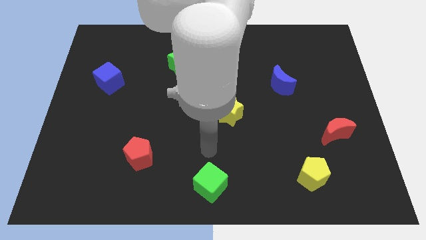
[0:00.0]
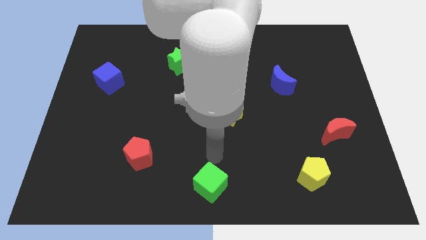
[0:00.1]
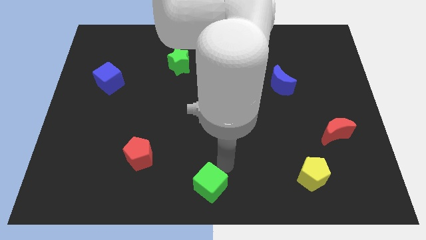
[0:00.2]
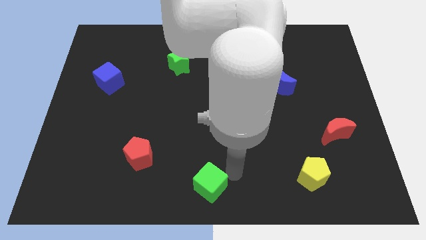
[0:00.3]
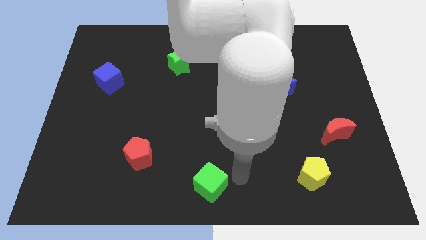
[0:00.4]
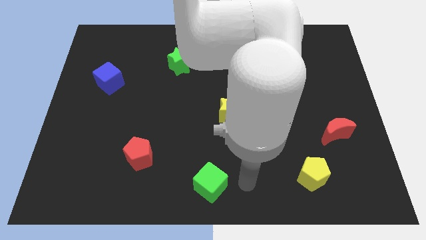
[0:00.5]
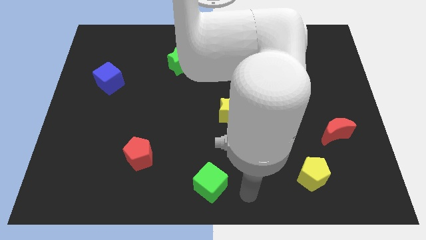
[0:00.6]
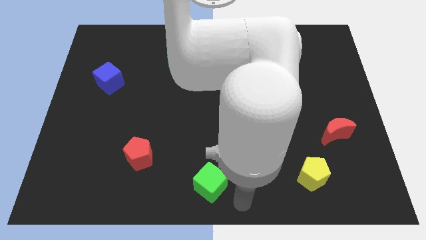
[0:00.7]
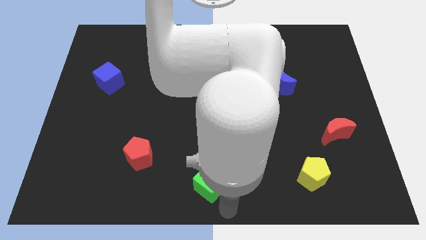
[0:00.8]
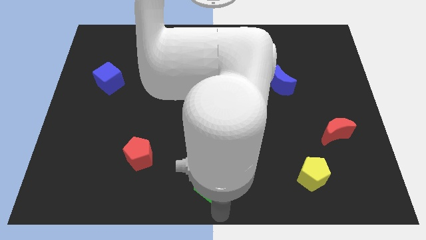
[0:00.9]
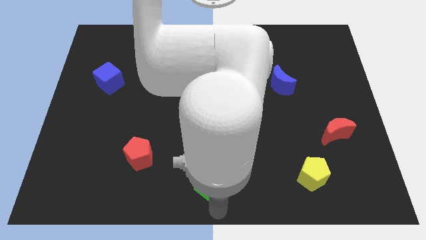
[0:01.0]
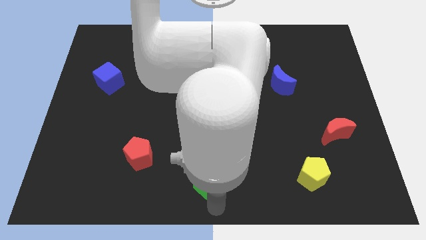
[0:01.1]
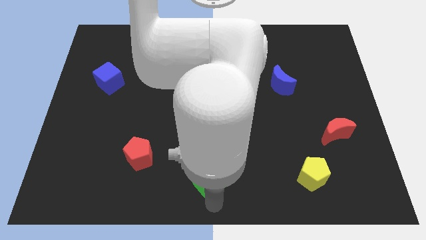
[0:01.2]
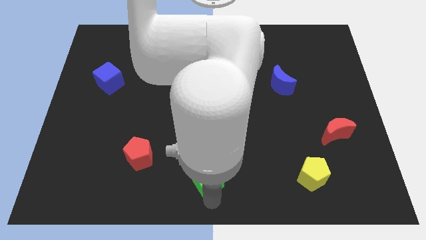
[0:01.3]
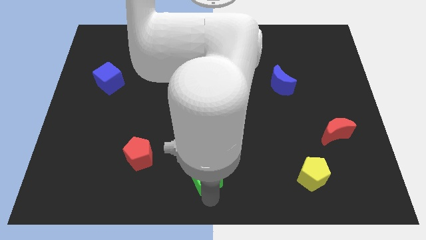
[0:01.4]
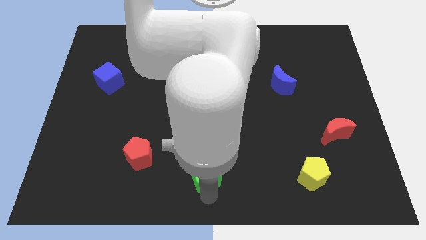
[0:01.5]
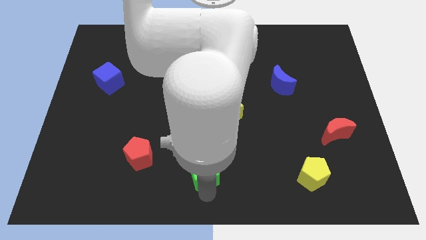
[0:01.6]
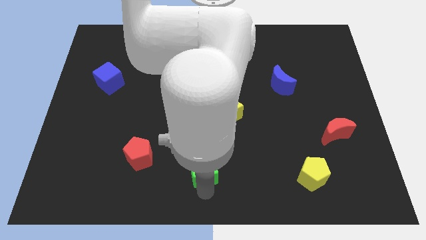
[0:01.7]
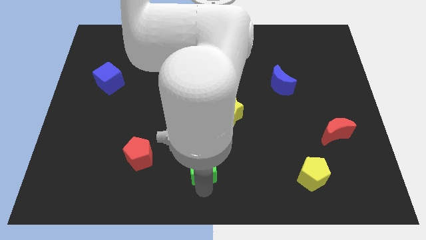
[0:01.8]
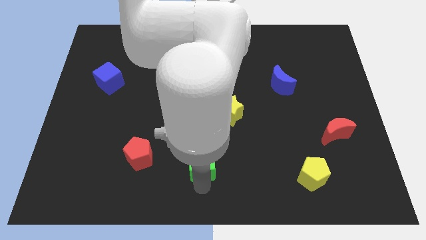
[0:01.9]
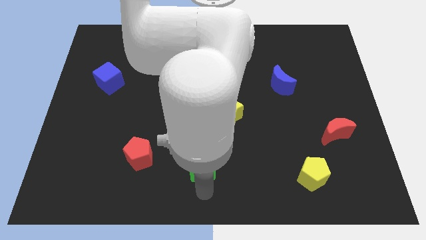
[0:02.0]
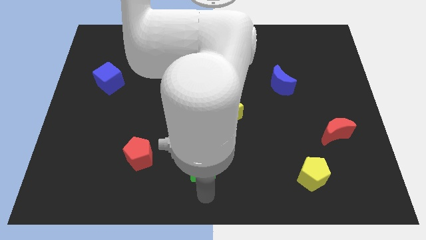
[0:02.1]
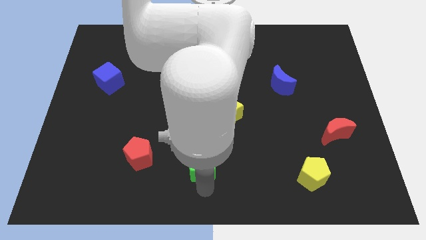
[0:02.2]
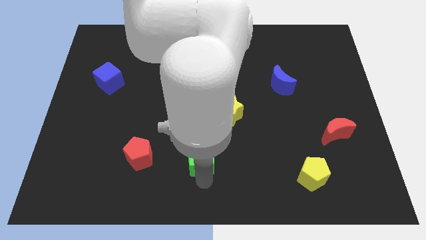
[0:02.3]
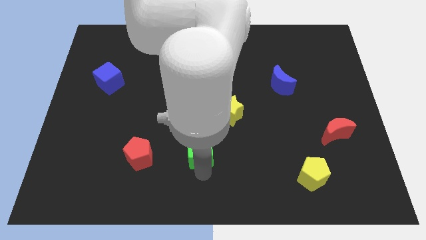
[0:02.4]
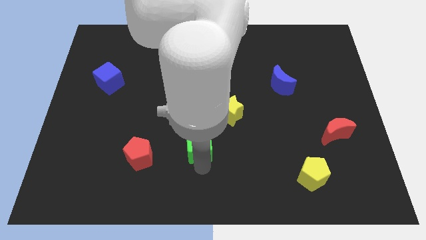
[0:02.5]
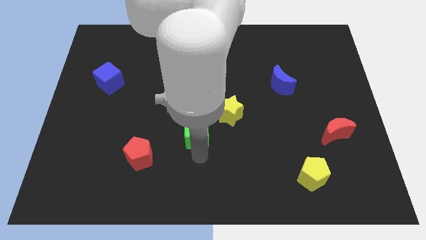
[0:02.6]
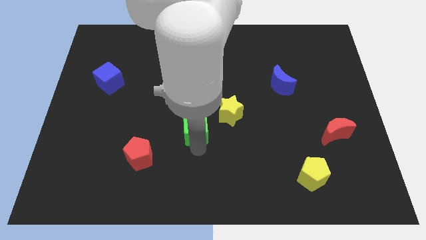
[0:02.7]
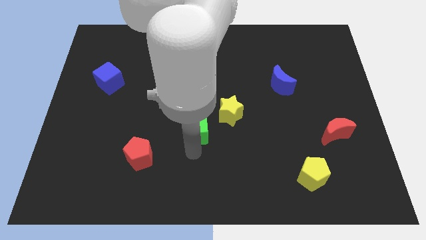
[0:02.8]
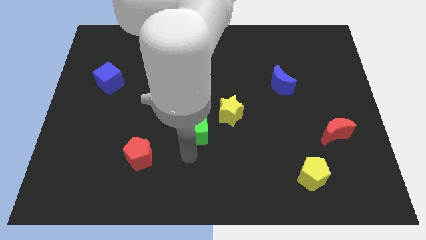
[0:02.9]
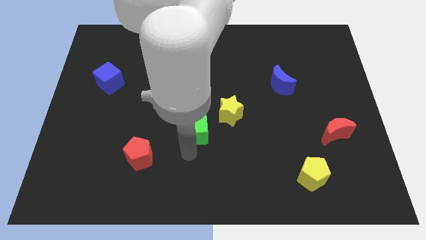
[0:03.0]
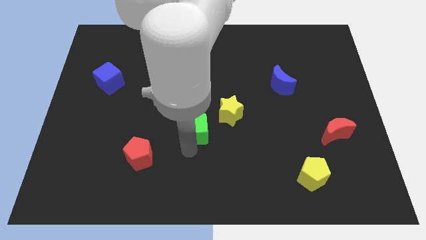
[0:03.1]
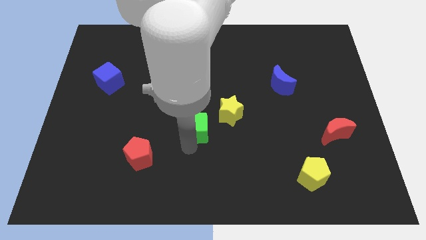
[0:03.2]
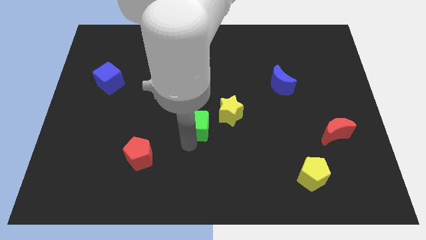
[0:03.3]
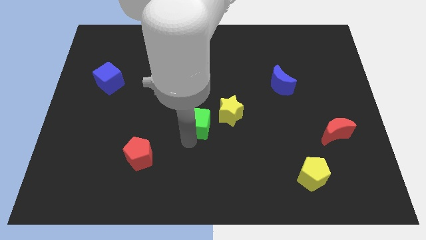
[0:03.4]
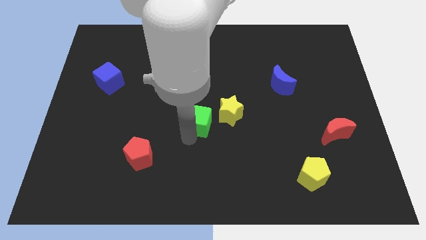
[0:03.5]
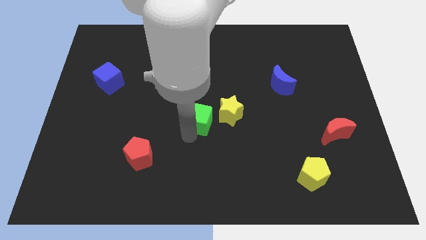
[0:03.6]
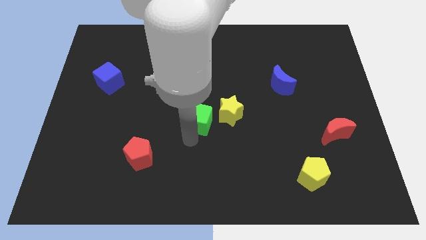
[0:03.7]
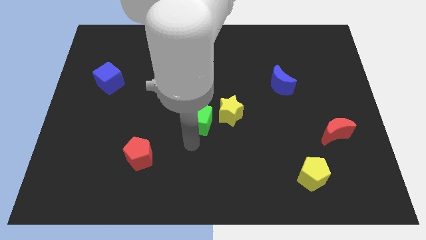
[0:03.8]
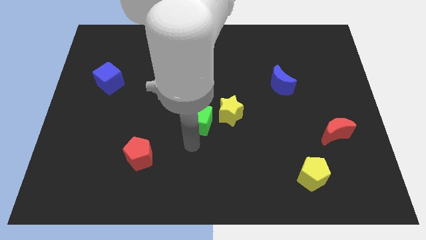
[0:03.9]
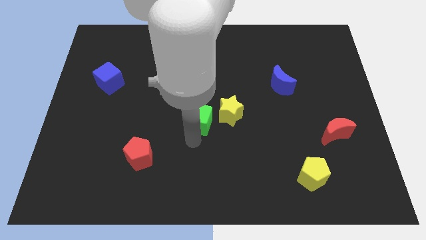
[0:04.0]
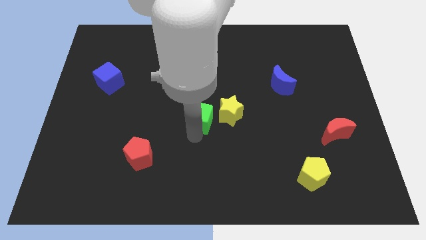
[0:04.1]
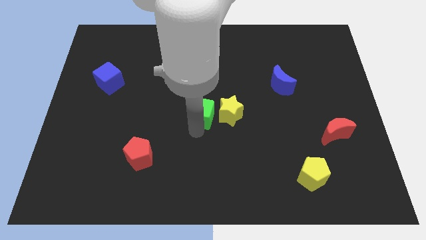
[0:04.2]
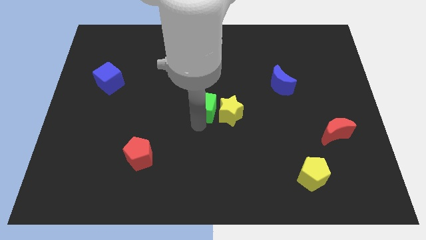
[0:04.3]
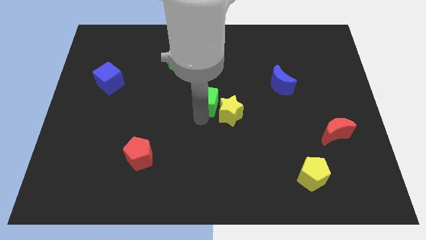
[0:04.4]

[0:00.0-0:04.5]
slide the green cube up

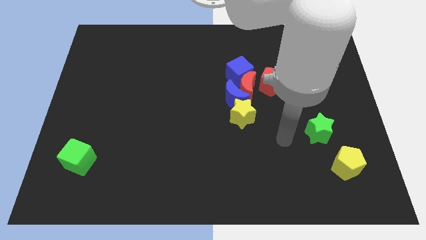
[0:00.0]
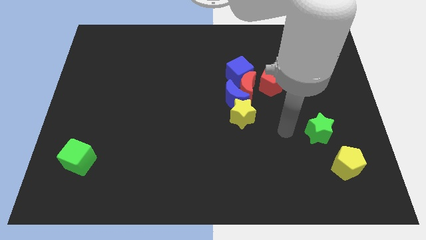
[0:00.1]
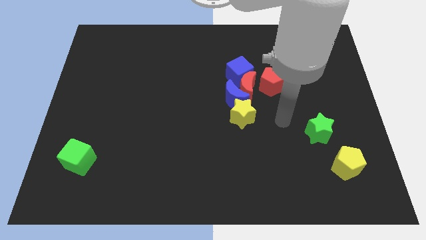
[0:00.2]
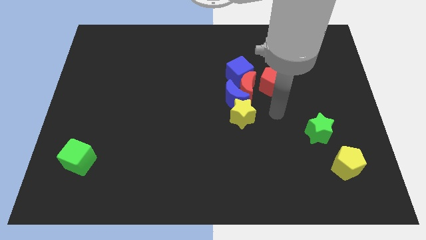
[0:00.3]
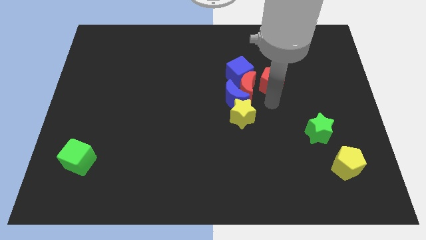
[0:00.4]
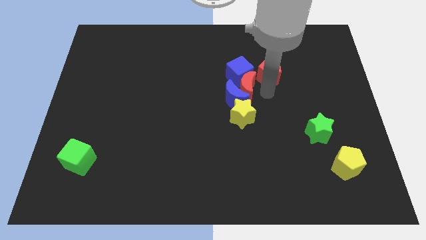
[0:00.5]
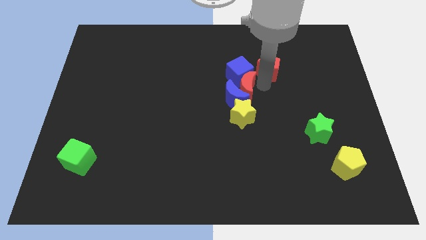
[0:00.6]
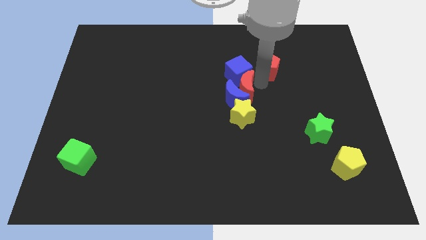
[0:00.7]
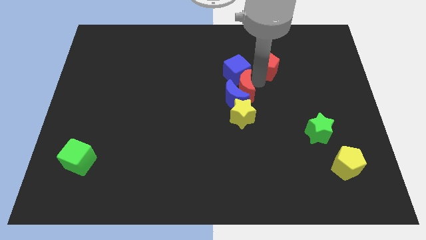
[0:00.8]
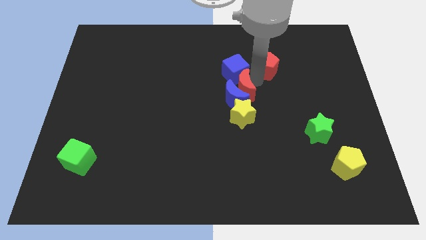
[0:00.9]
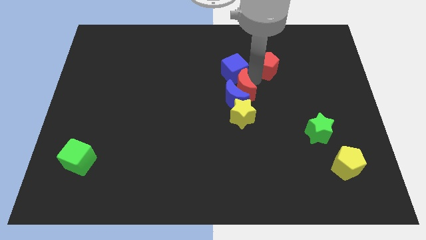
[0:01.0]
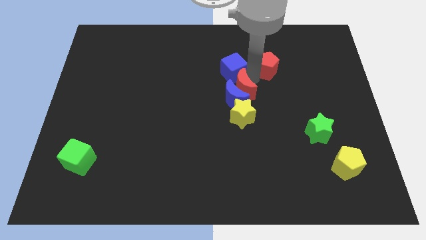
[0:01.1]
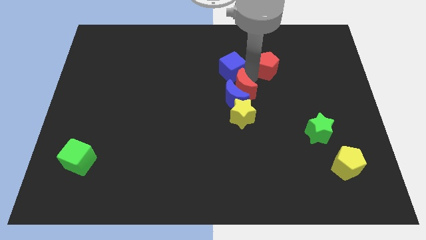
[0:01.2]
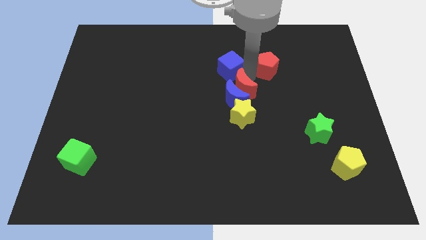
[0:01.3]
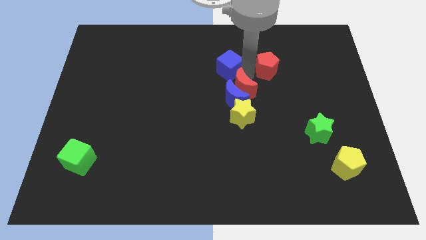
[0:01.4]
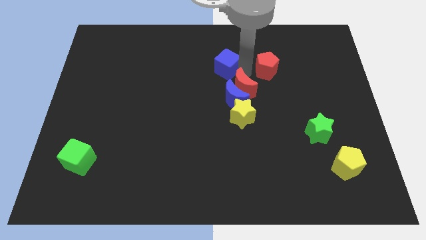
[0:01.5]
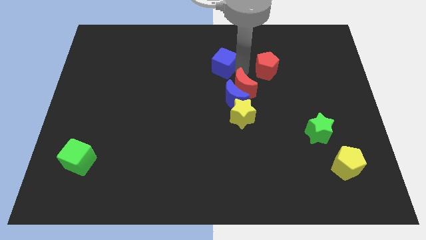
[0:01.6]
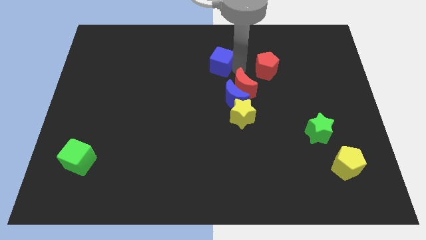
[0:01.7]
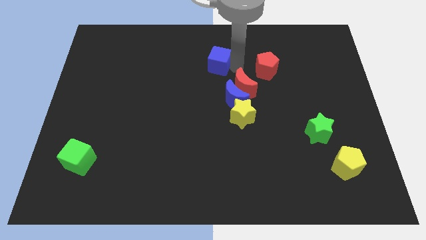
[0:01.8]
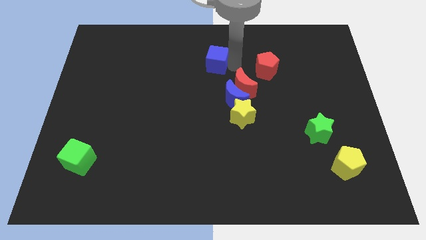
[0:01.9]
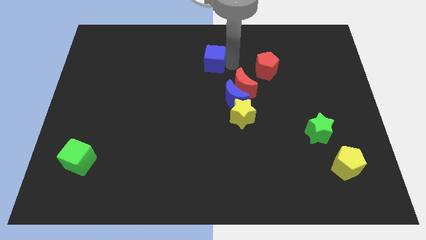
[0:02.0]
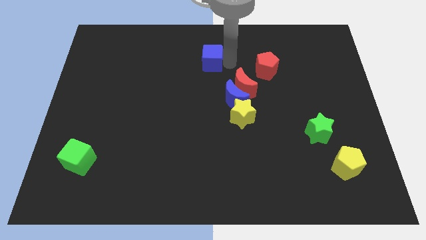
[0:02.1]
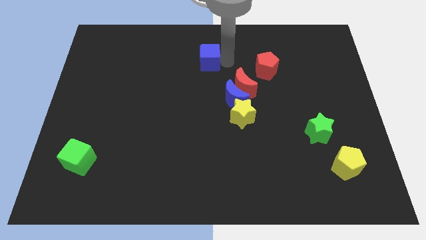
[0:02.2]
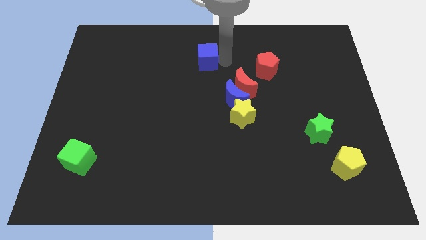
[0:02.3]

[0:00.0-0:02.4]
slightly slide the blue cube to the left

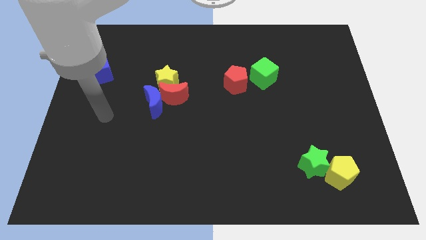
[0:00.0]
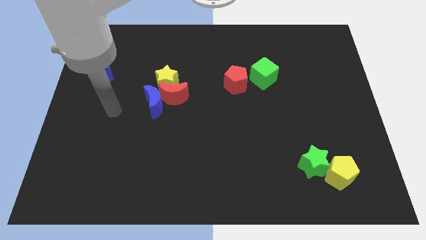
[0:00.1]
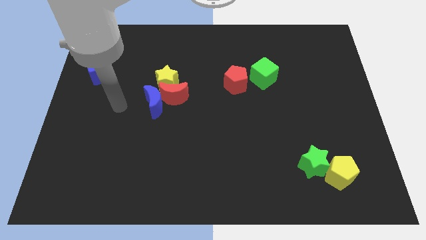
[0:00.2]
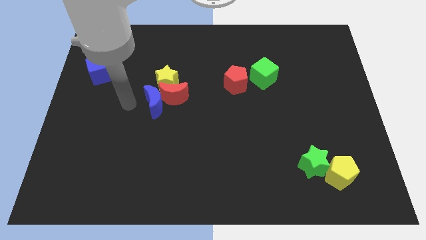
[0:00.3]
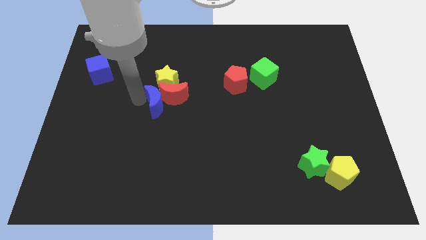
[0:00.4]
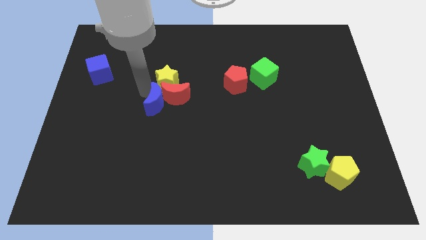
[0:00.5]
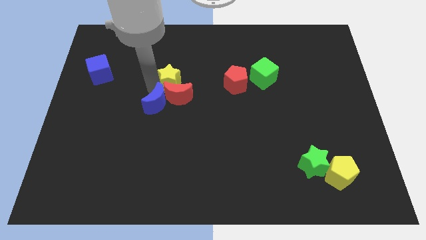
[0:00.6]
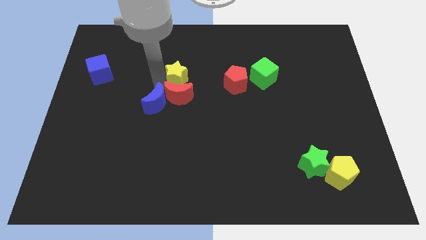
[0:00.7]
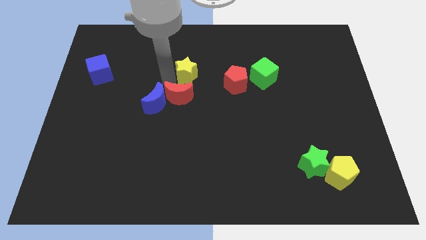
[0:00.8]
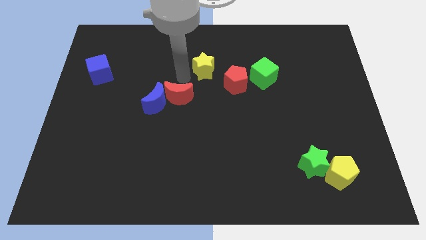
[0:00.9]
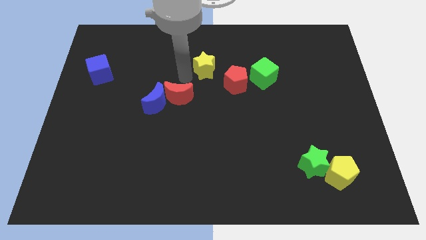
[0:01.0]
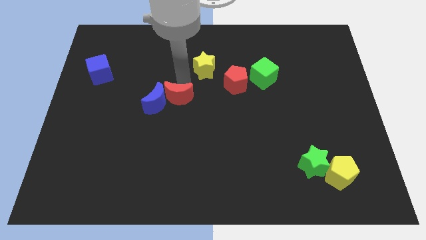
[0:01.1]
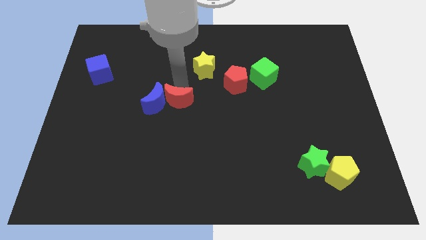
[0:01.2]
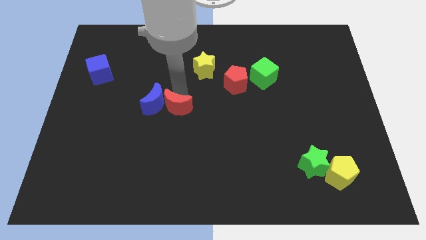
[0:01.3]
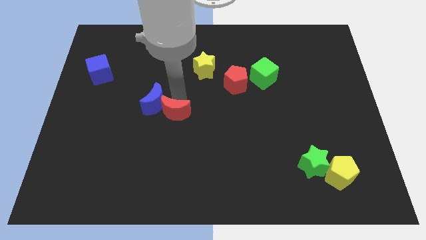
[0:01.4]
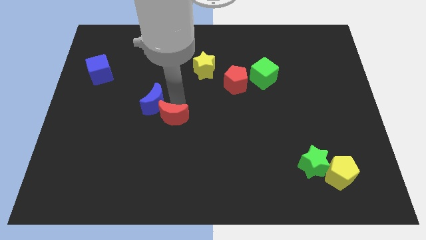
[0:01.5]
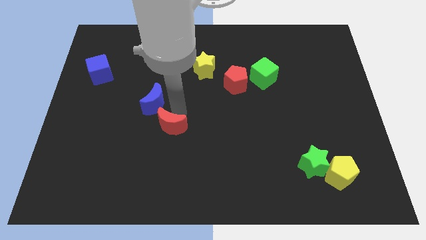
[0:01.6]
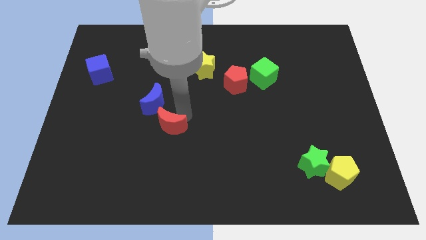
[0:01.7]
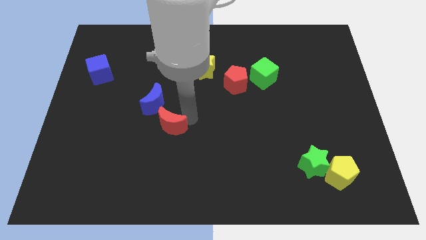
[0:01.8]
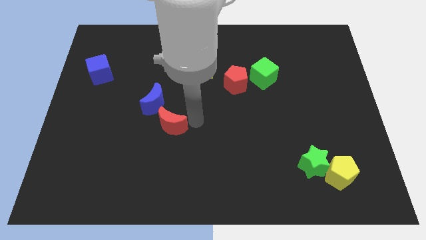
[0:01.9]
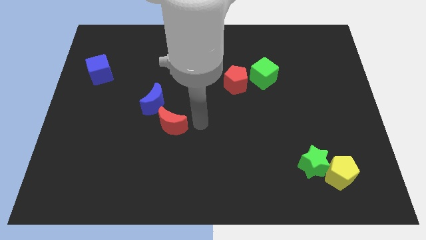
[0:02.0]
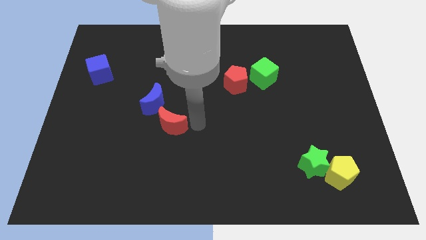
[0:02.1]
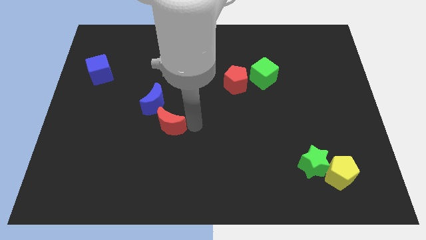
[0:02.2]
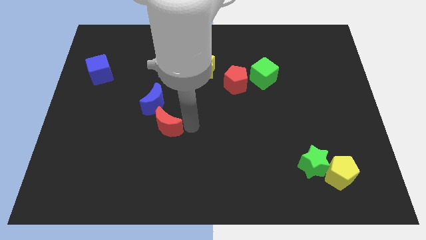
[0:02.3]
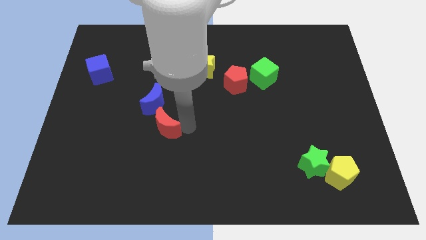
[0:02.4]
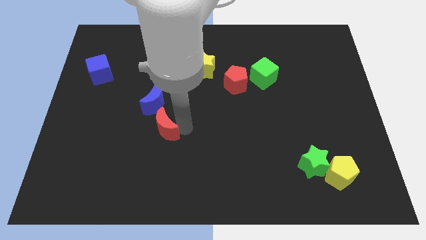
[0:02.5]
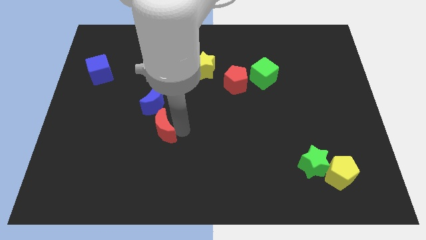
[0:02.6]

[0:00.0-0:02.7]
slightly move the red moon down and left diagonally
